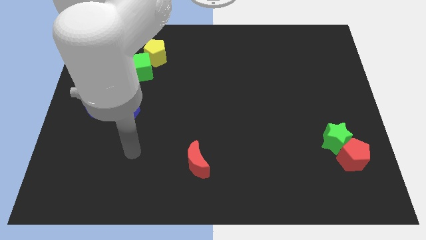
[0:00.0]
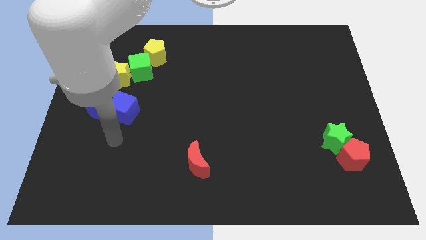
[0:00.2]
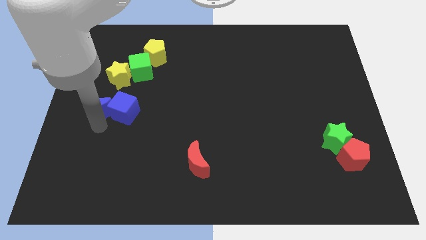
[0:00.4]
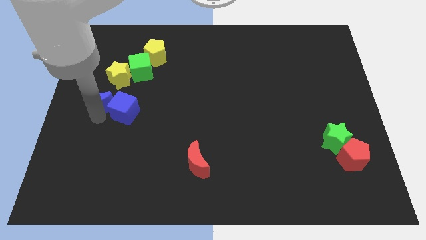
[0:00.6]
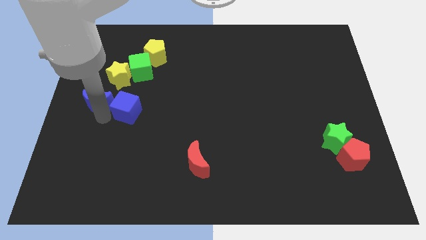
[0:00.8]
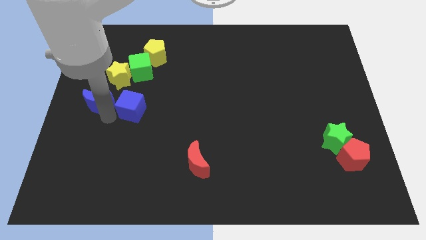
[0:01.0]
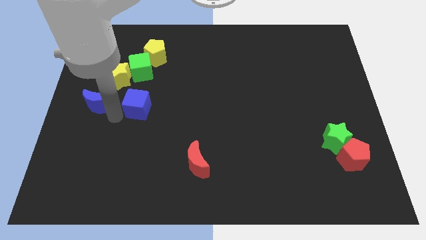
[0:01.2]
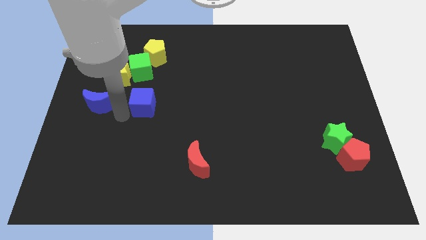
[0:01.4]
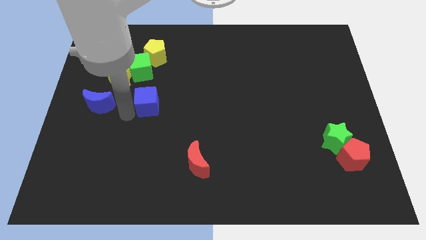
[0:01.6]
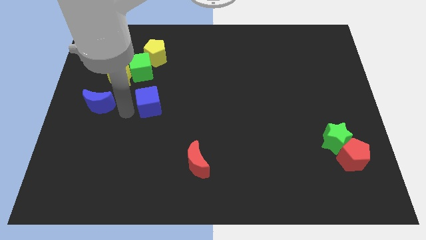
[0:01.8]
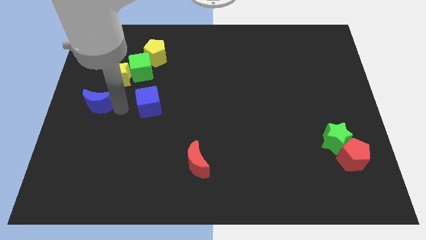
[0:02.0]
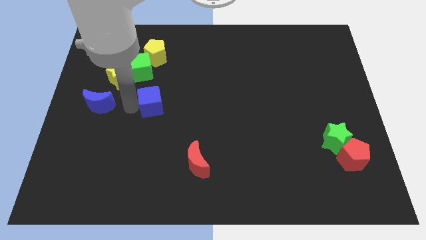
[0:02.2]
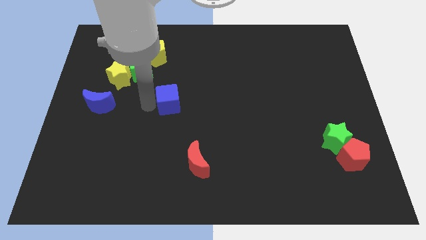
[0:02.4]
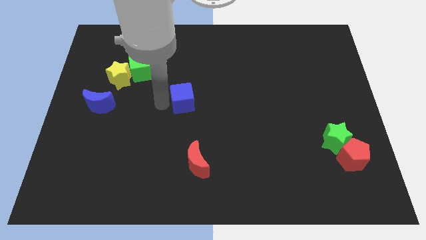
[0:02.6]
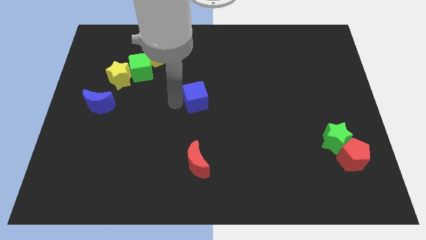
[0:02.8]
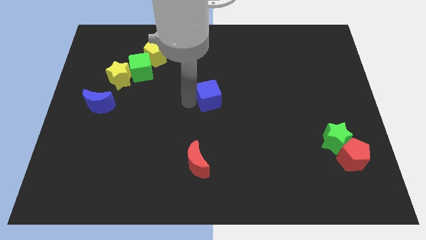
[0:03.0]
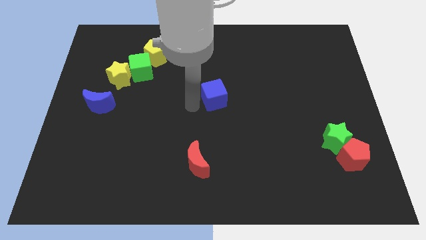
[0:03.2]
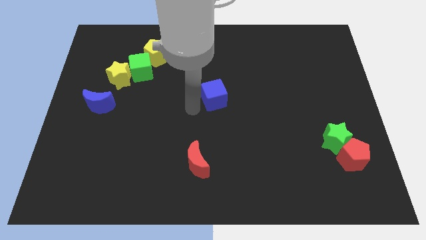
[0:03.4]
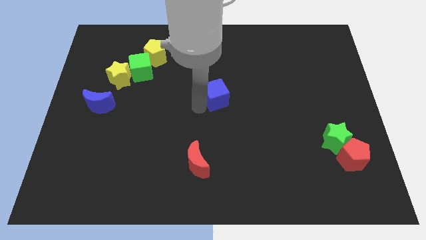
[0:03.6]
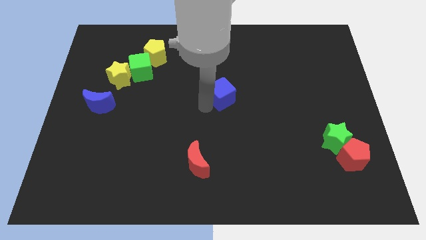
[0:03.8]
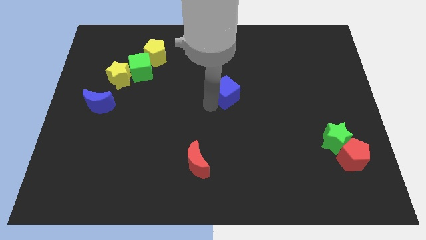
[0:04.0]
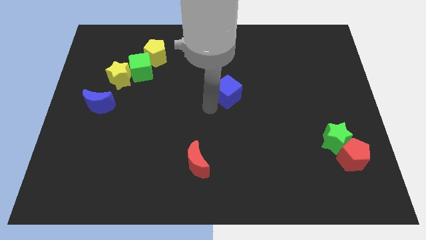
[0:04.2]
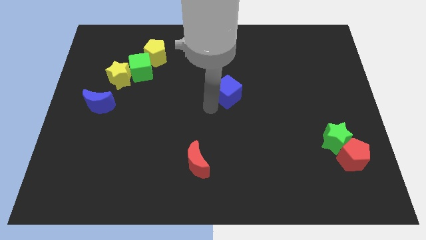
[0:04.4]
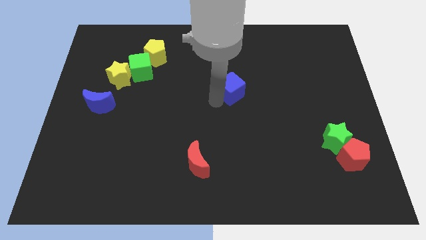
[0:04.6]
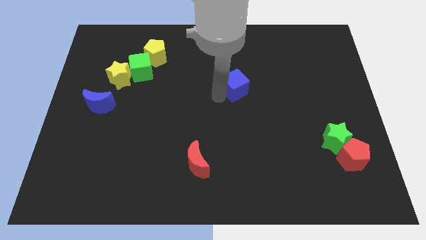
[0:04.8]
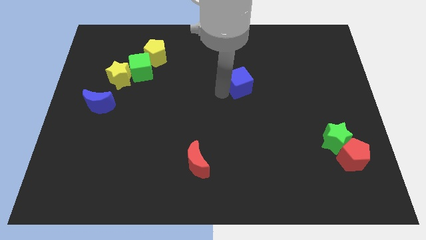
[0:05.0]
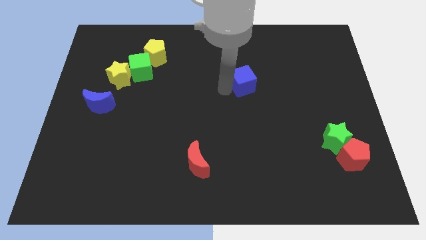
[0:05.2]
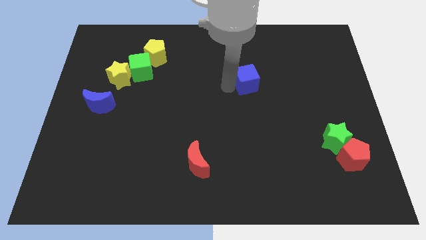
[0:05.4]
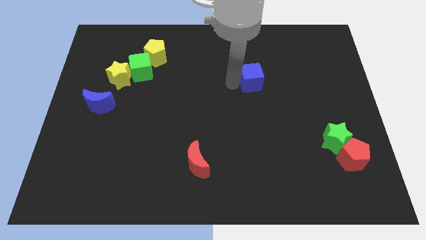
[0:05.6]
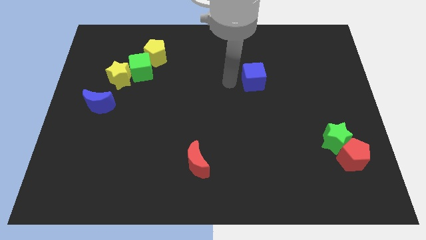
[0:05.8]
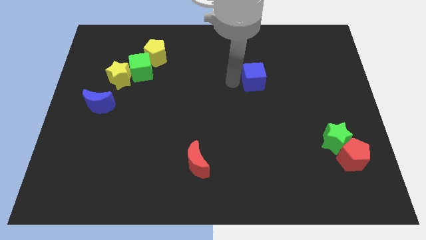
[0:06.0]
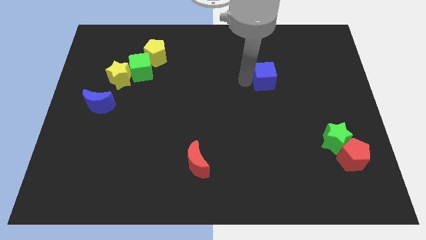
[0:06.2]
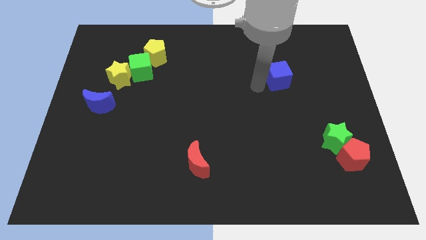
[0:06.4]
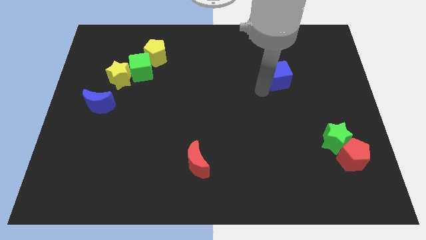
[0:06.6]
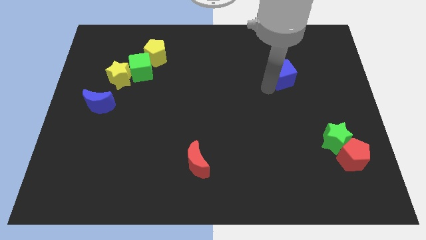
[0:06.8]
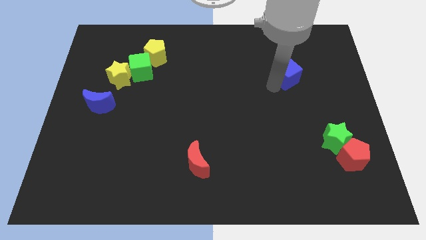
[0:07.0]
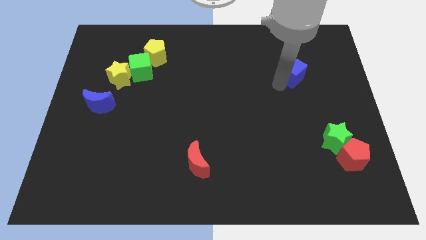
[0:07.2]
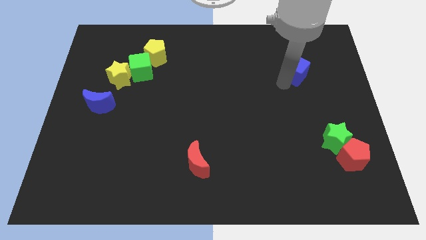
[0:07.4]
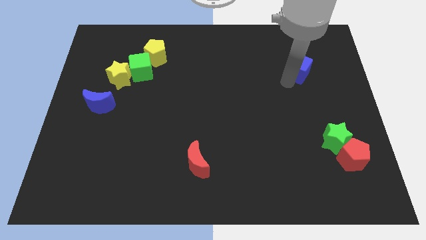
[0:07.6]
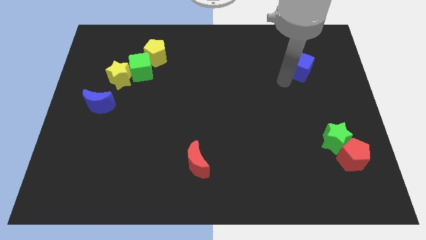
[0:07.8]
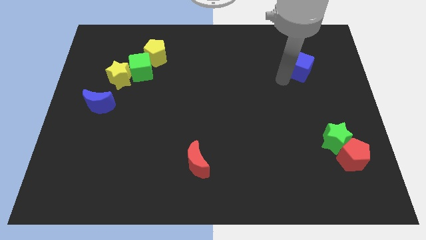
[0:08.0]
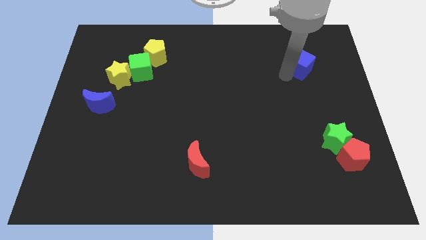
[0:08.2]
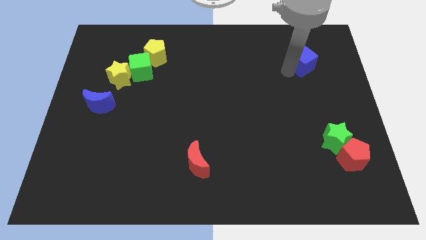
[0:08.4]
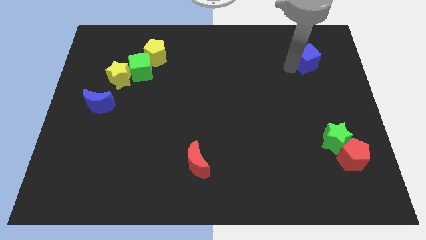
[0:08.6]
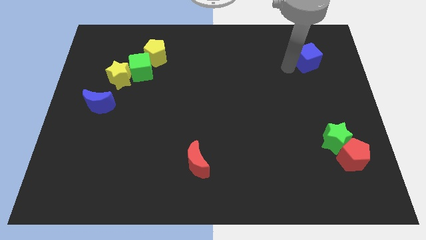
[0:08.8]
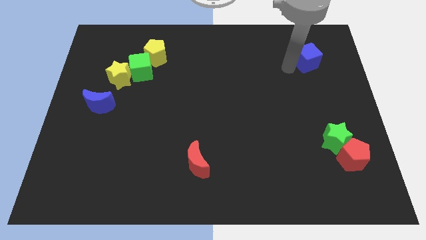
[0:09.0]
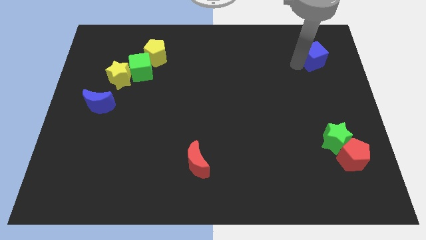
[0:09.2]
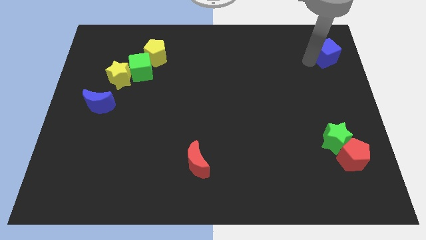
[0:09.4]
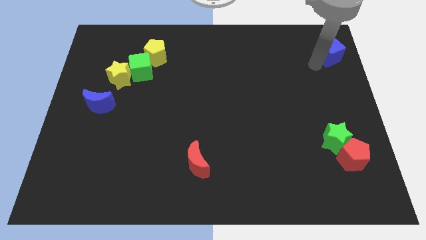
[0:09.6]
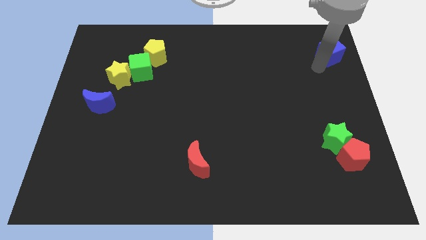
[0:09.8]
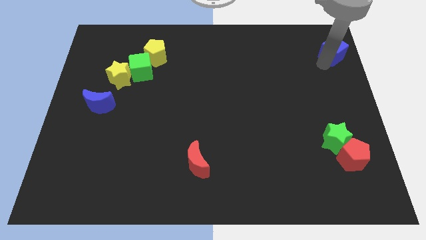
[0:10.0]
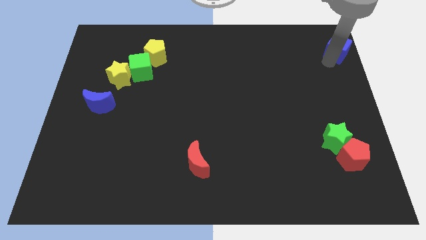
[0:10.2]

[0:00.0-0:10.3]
slide the blue cube to the top right corner

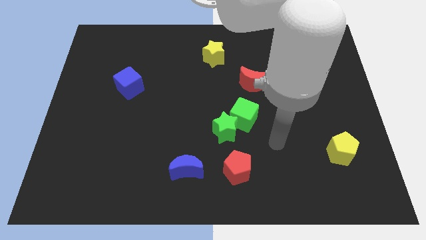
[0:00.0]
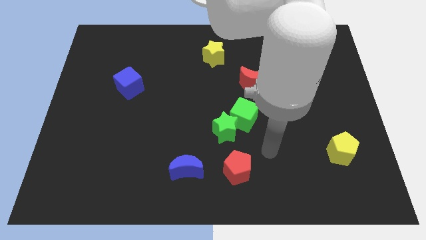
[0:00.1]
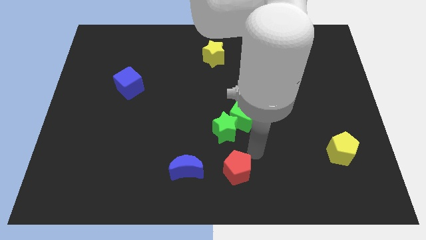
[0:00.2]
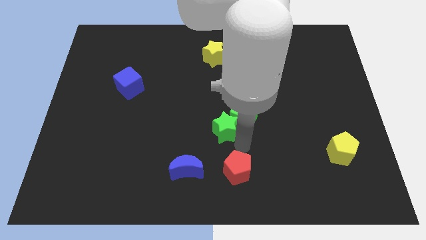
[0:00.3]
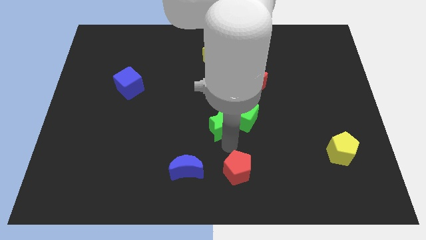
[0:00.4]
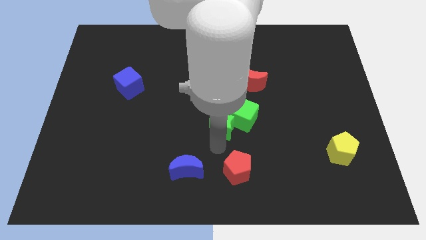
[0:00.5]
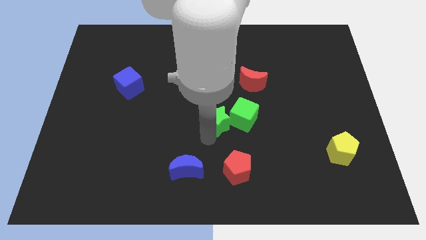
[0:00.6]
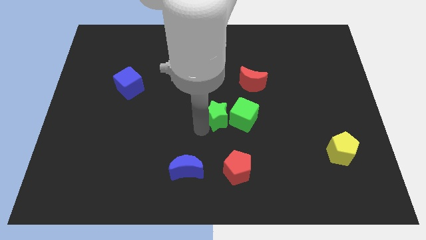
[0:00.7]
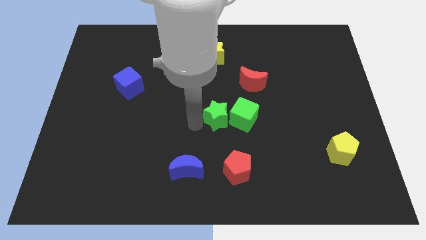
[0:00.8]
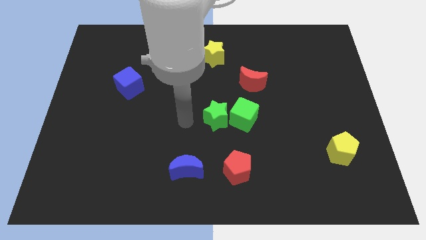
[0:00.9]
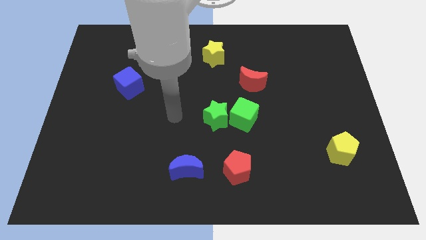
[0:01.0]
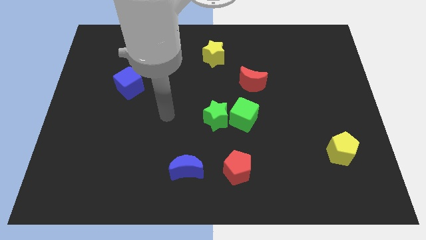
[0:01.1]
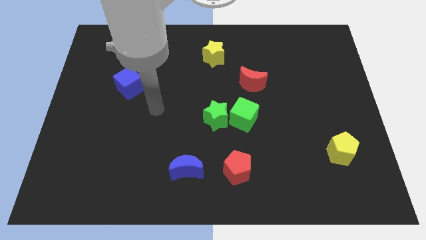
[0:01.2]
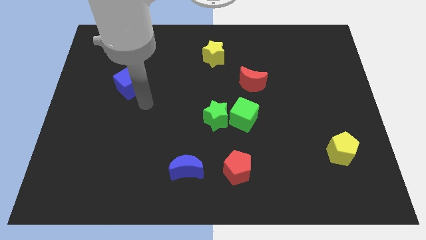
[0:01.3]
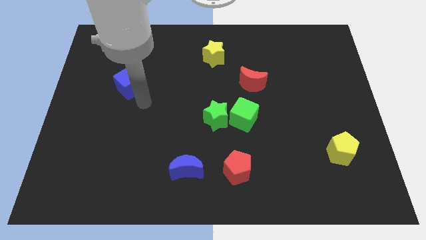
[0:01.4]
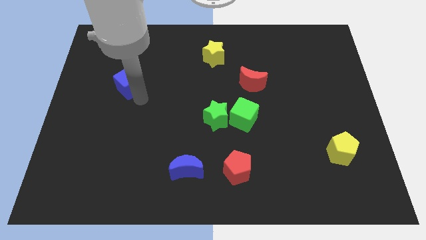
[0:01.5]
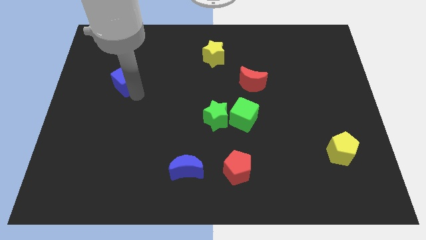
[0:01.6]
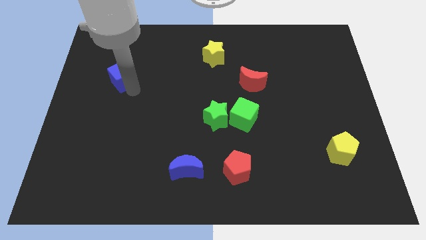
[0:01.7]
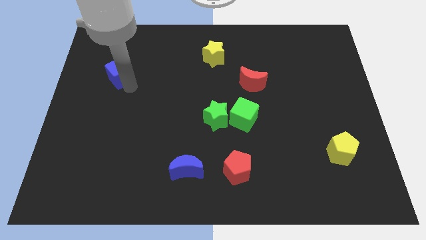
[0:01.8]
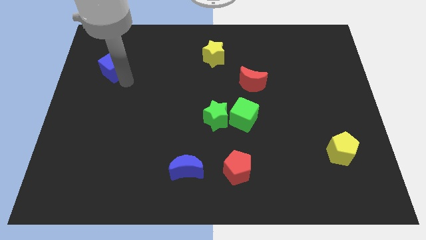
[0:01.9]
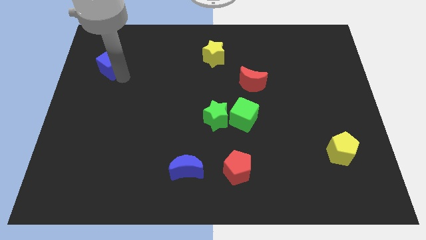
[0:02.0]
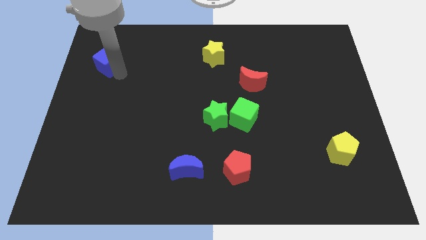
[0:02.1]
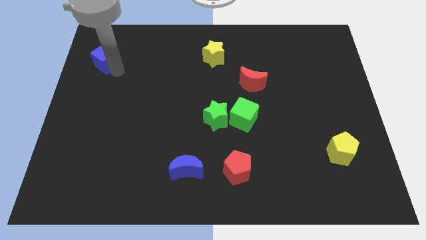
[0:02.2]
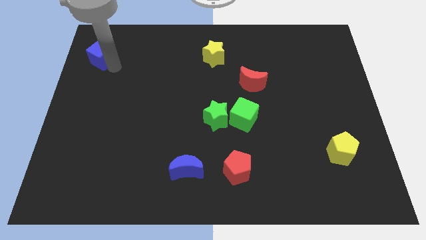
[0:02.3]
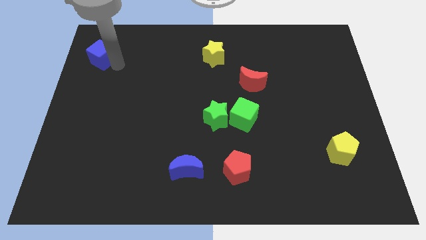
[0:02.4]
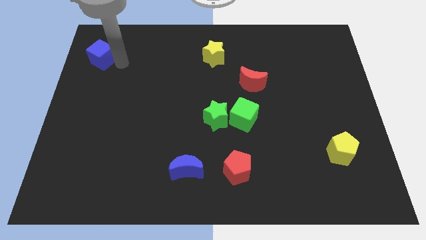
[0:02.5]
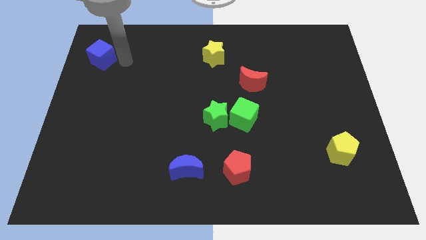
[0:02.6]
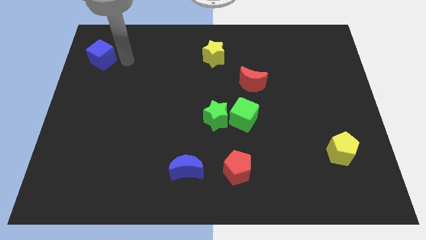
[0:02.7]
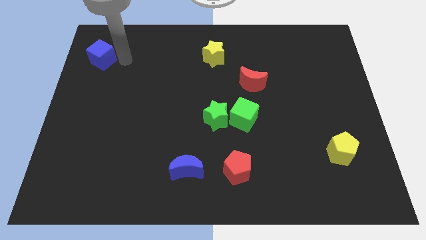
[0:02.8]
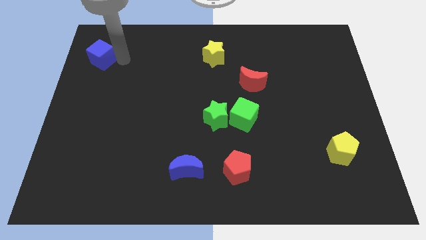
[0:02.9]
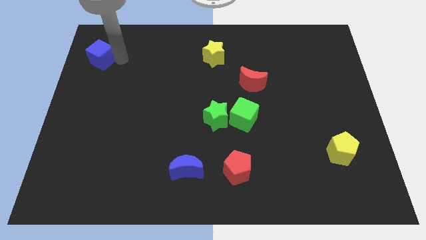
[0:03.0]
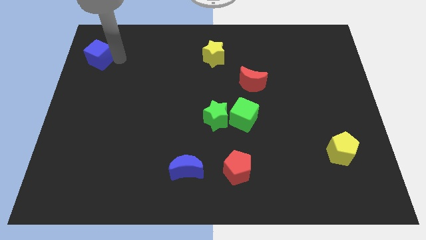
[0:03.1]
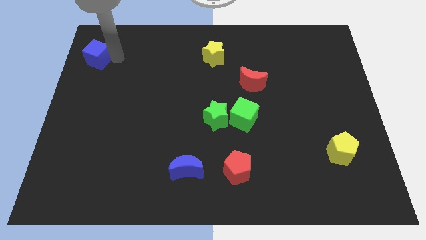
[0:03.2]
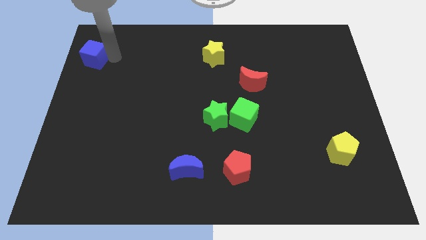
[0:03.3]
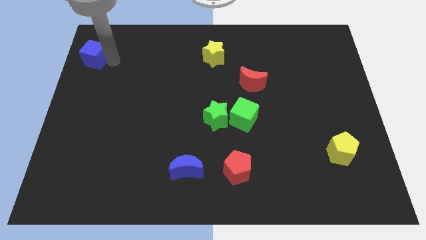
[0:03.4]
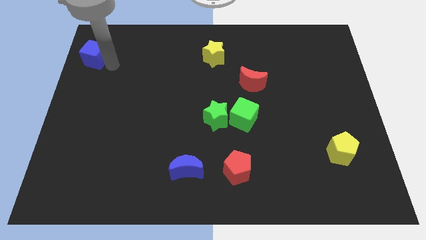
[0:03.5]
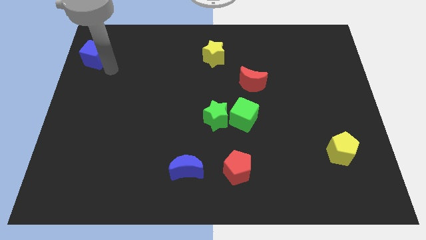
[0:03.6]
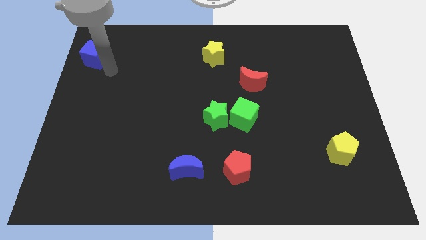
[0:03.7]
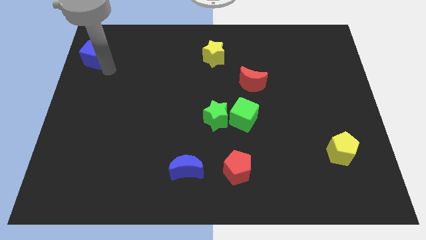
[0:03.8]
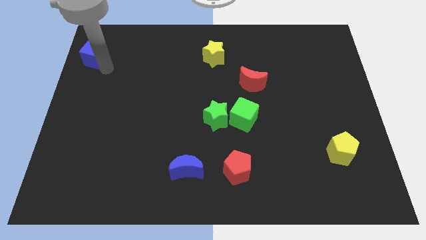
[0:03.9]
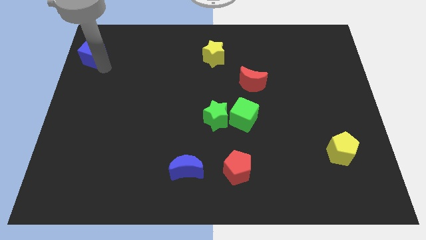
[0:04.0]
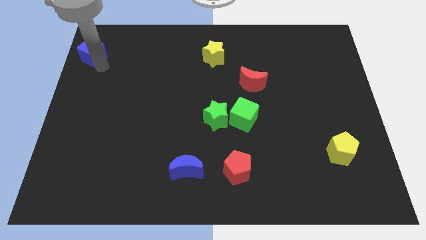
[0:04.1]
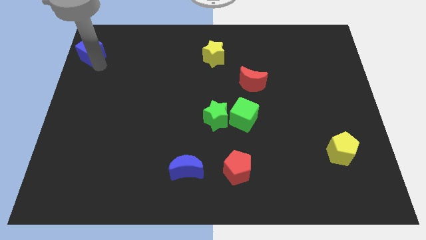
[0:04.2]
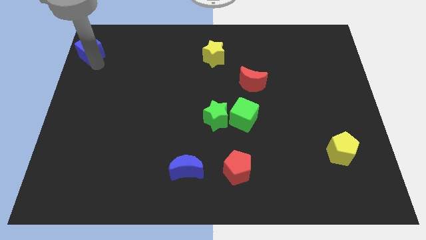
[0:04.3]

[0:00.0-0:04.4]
push the blue cube to the top left corner
